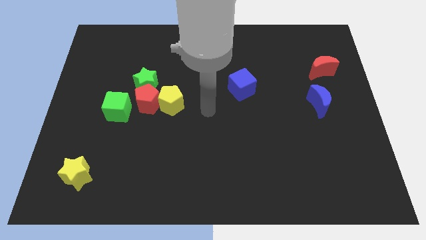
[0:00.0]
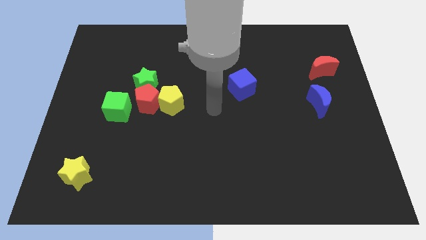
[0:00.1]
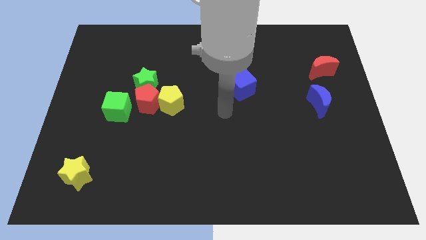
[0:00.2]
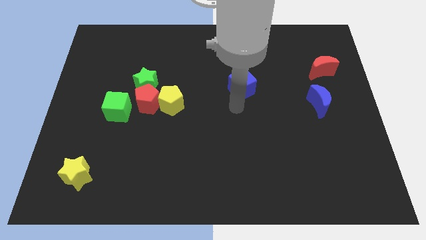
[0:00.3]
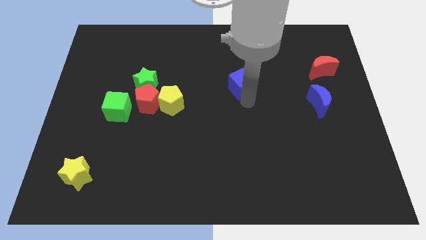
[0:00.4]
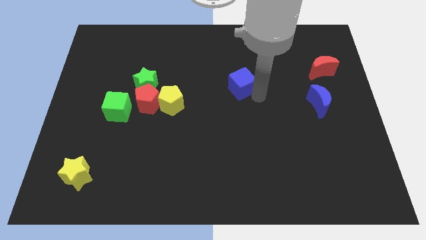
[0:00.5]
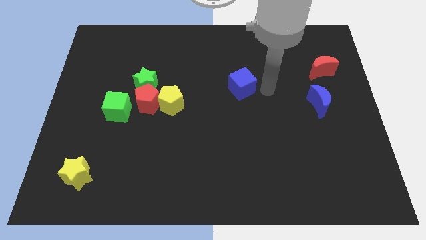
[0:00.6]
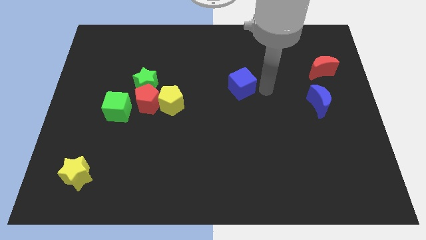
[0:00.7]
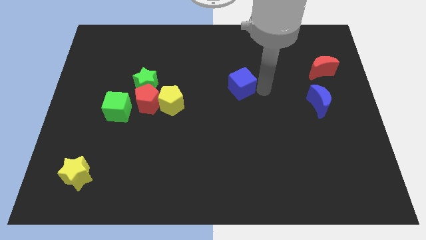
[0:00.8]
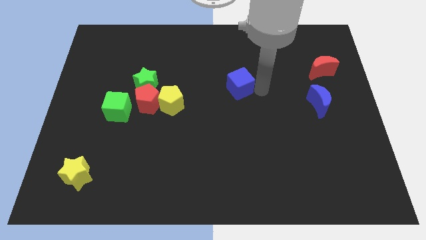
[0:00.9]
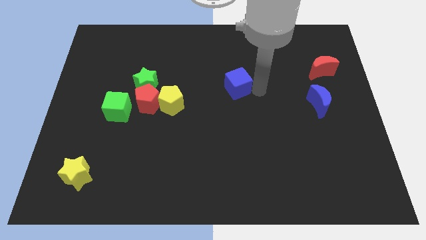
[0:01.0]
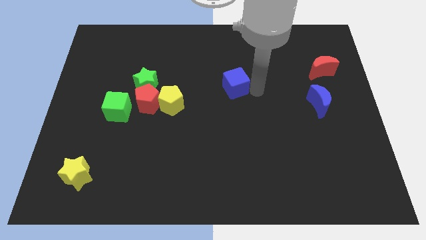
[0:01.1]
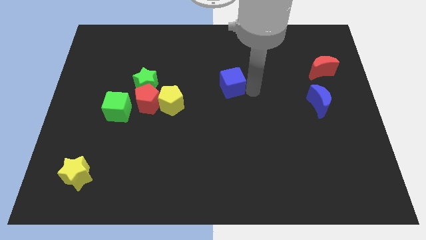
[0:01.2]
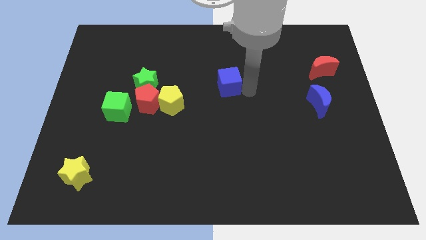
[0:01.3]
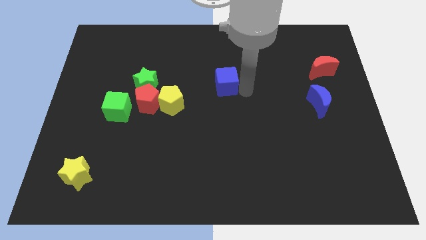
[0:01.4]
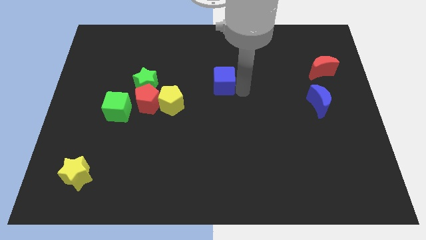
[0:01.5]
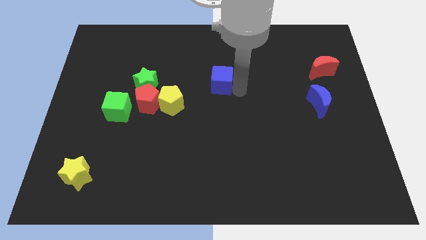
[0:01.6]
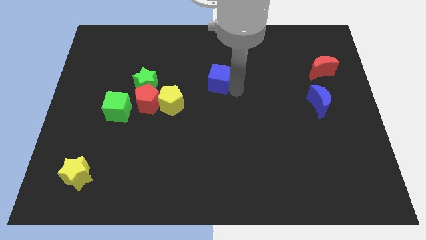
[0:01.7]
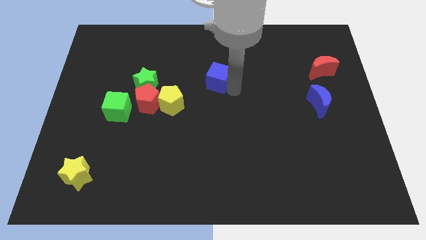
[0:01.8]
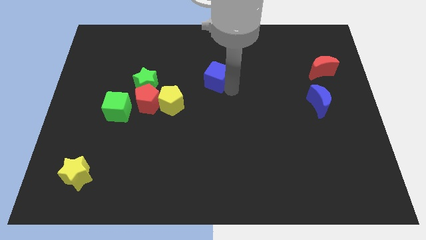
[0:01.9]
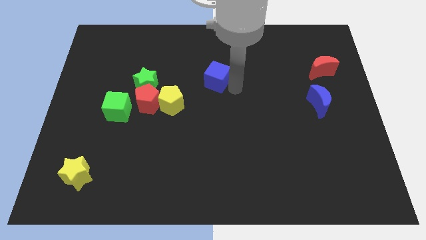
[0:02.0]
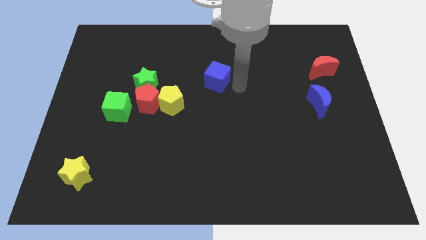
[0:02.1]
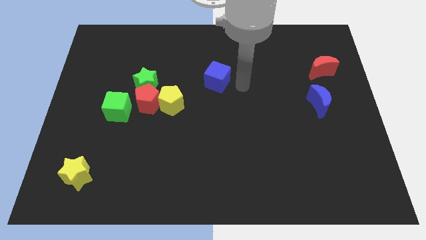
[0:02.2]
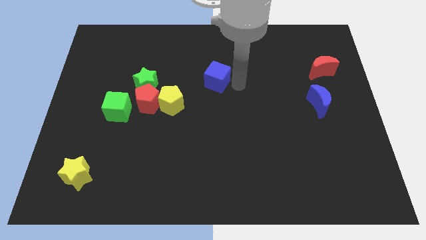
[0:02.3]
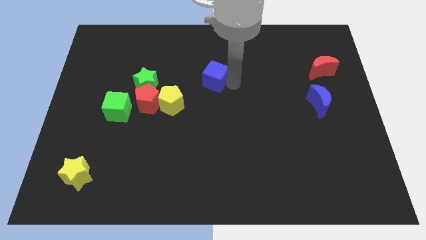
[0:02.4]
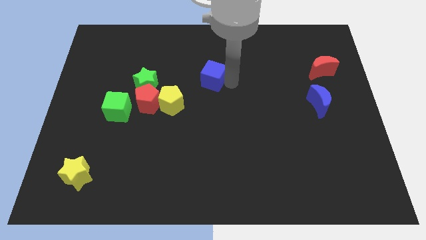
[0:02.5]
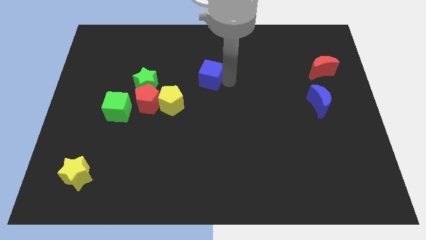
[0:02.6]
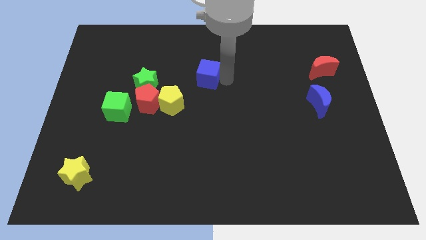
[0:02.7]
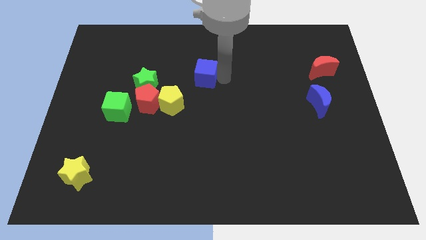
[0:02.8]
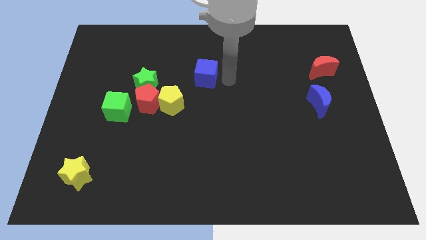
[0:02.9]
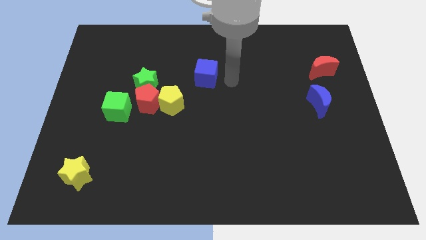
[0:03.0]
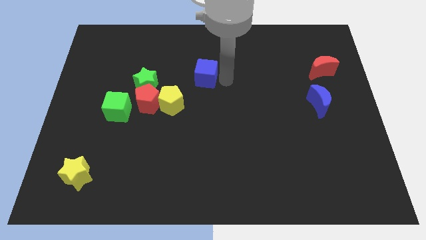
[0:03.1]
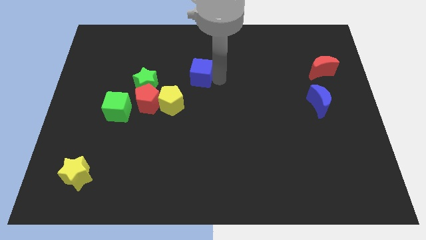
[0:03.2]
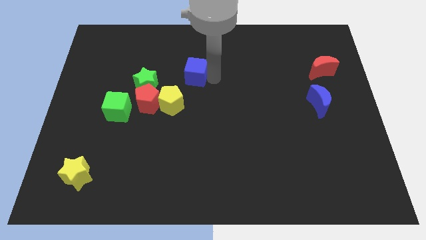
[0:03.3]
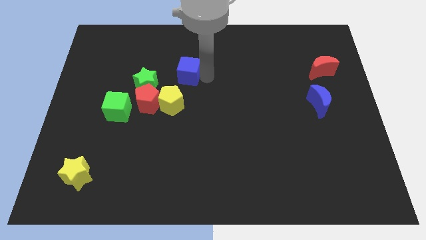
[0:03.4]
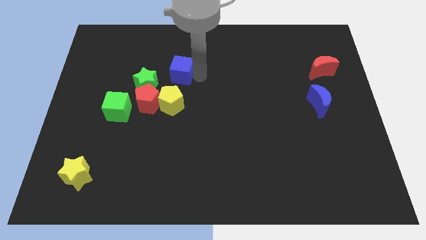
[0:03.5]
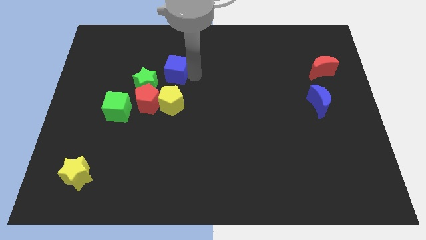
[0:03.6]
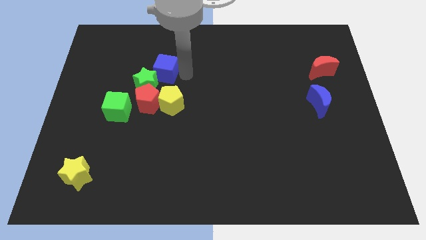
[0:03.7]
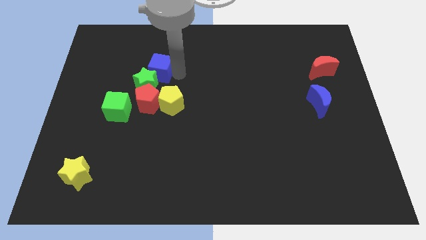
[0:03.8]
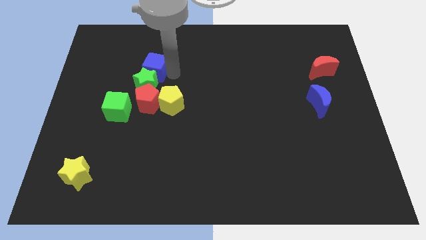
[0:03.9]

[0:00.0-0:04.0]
push the blue cube to the left

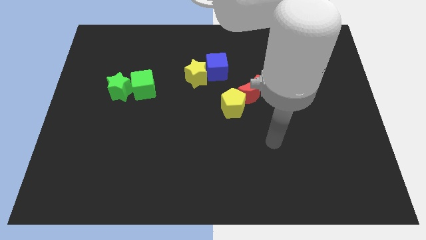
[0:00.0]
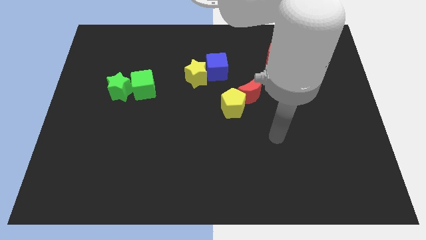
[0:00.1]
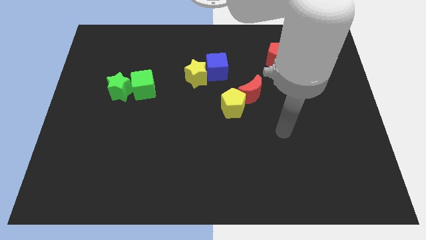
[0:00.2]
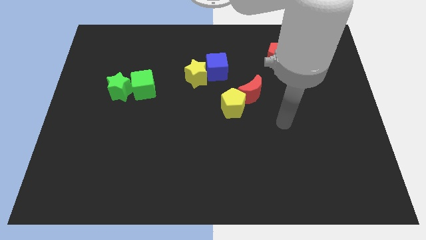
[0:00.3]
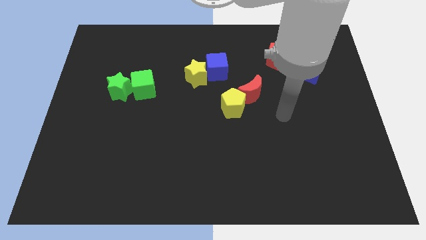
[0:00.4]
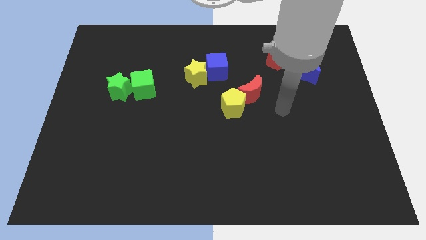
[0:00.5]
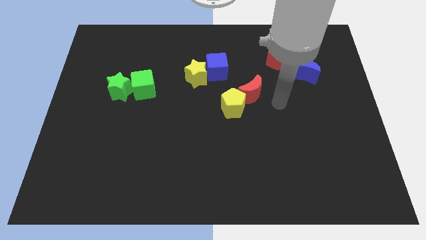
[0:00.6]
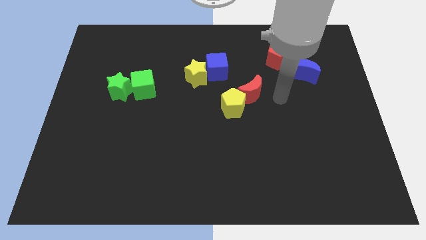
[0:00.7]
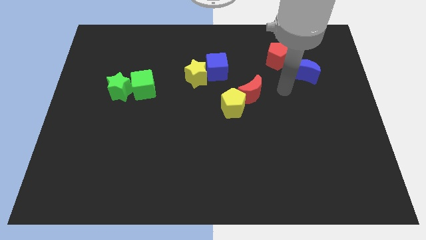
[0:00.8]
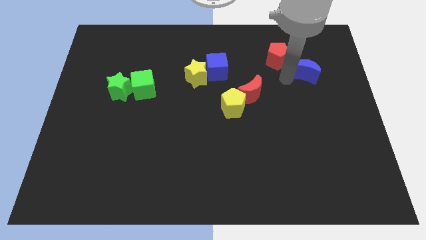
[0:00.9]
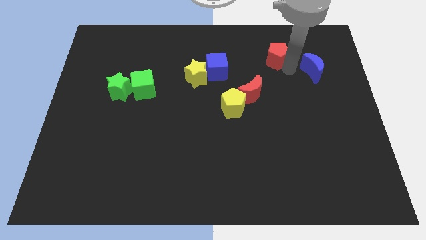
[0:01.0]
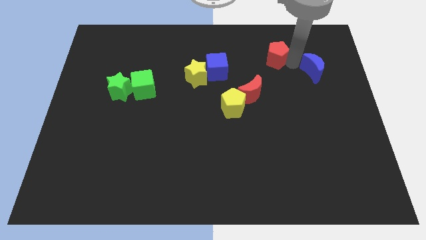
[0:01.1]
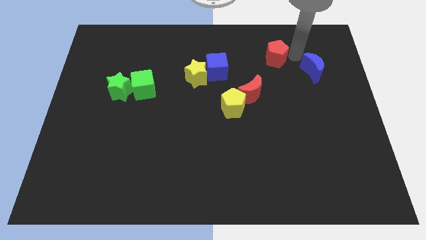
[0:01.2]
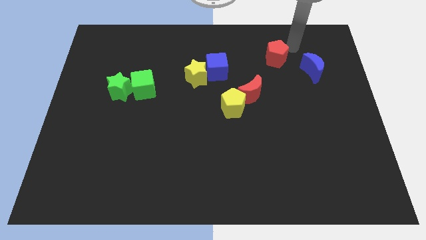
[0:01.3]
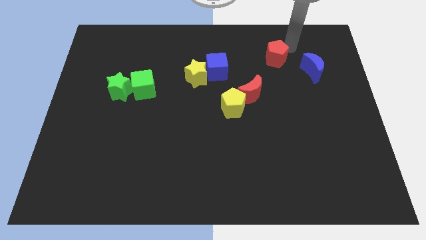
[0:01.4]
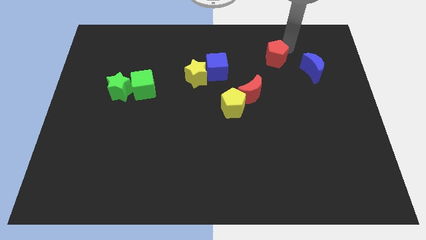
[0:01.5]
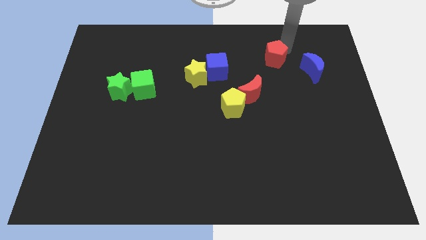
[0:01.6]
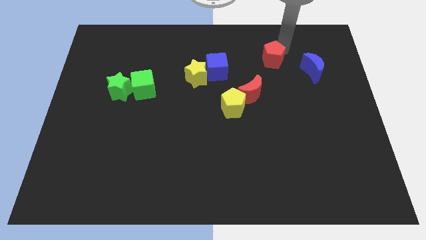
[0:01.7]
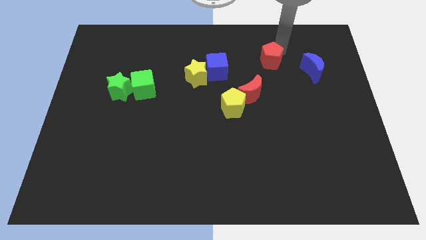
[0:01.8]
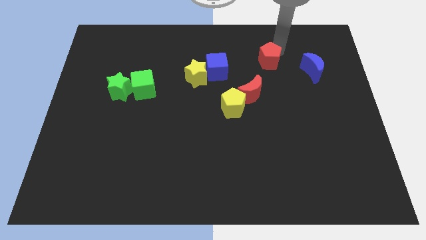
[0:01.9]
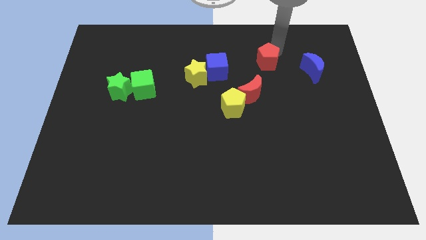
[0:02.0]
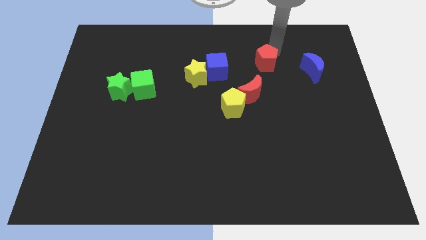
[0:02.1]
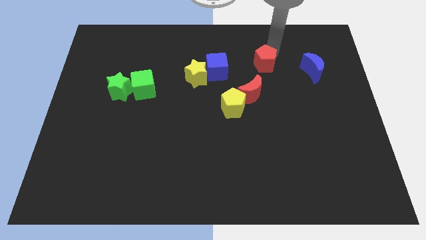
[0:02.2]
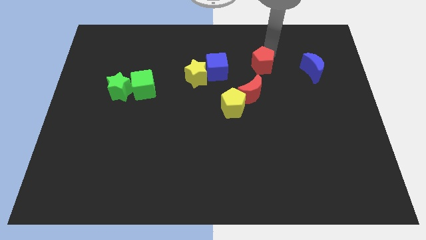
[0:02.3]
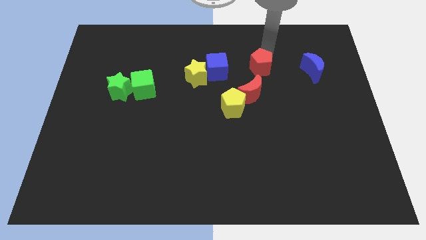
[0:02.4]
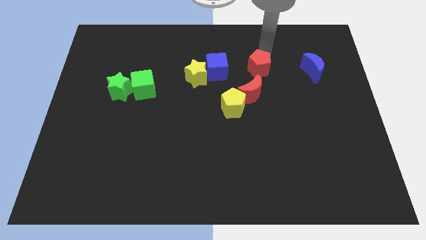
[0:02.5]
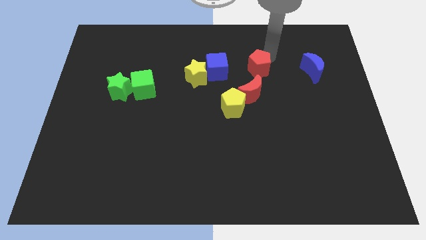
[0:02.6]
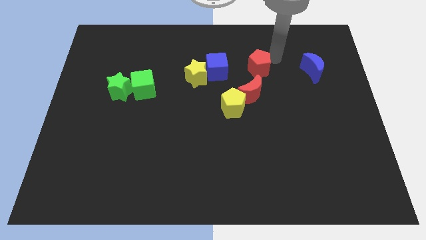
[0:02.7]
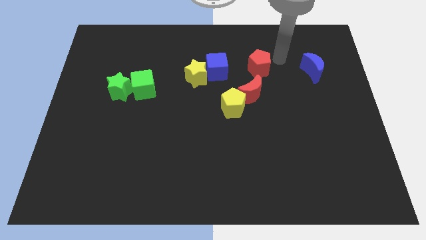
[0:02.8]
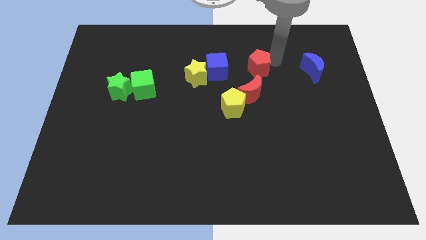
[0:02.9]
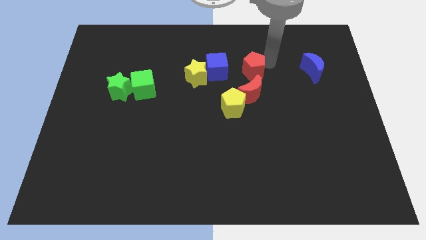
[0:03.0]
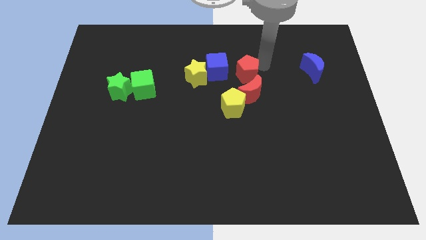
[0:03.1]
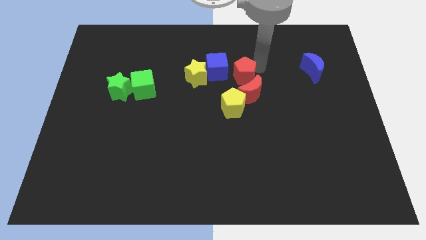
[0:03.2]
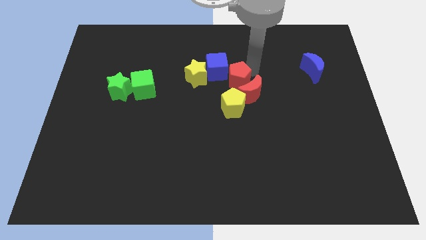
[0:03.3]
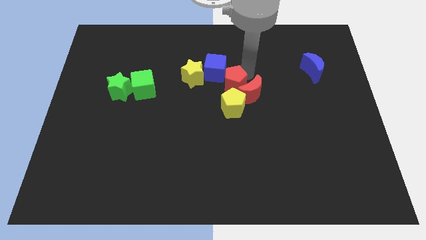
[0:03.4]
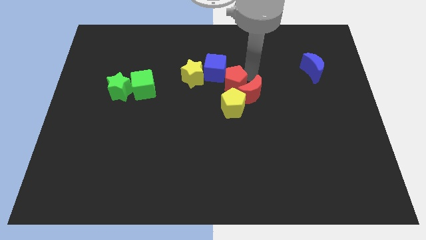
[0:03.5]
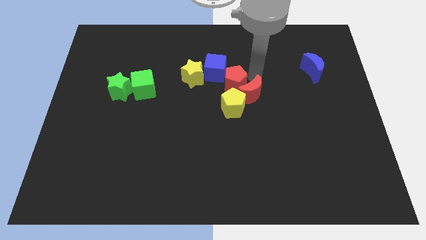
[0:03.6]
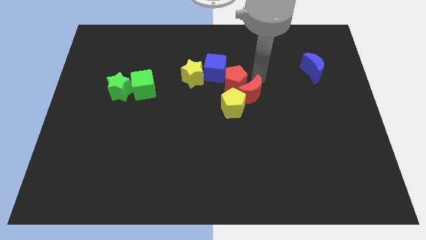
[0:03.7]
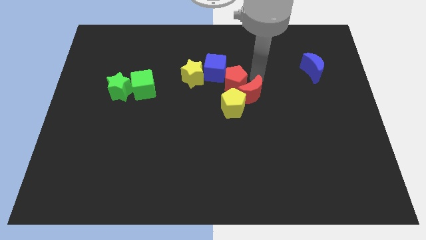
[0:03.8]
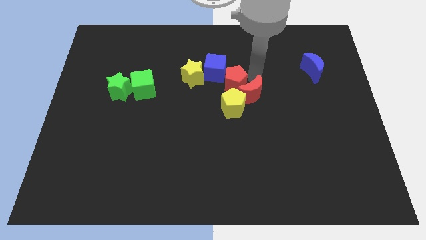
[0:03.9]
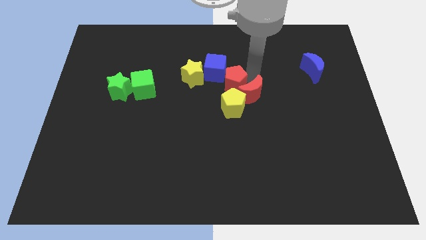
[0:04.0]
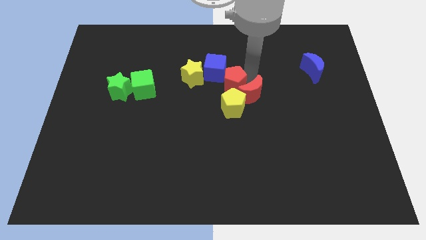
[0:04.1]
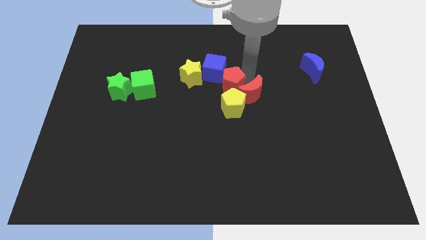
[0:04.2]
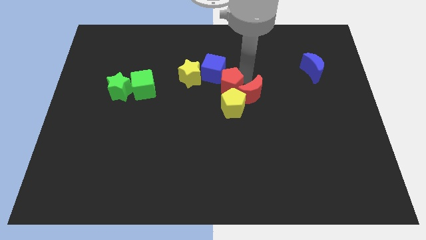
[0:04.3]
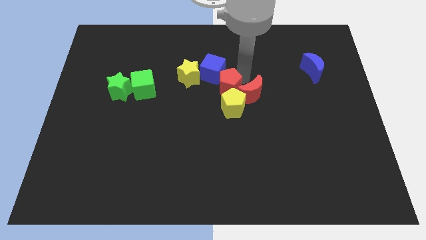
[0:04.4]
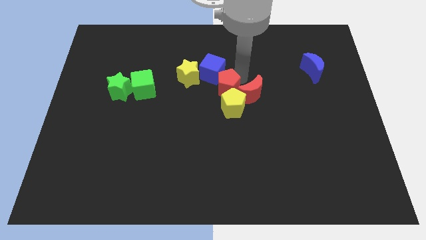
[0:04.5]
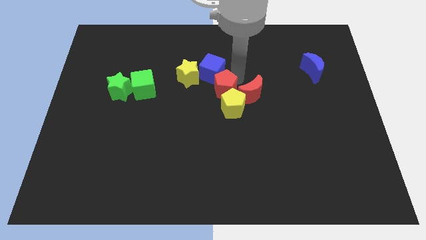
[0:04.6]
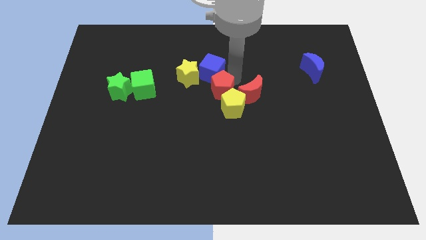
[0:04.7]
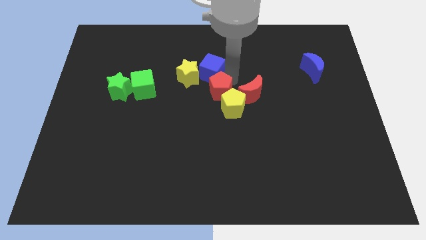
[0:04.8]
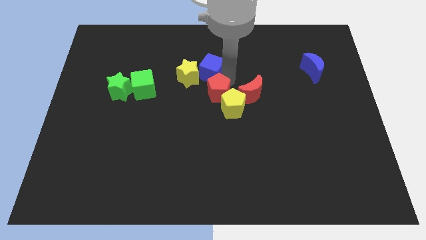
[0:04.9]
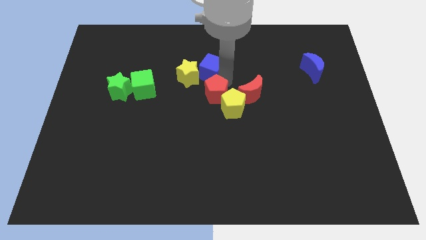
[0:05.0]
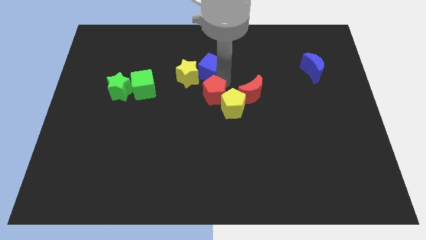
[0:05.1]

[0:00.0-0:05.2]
move the red pentagon downwards and left diagonally
